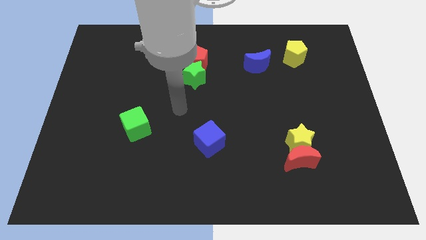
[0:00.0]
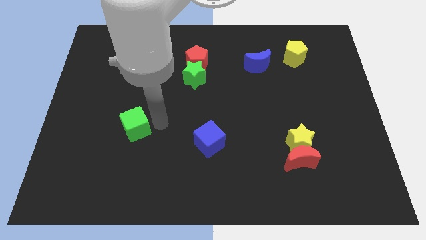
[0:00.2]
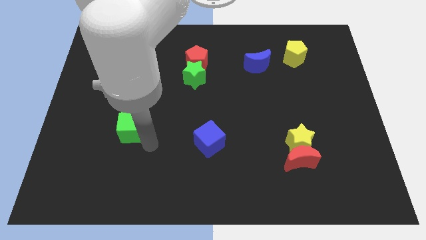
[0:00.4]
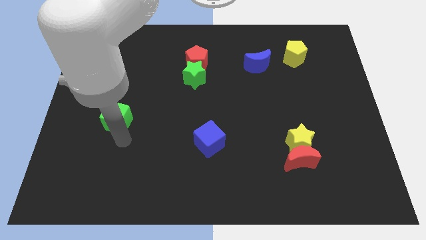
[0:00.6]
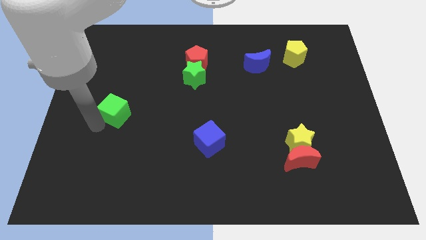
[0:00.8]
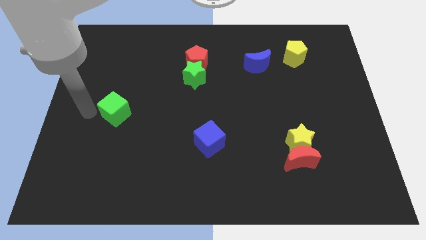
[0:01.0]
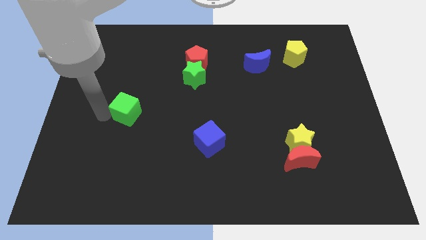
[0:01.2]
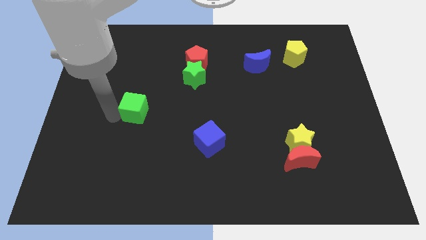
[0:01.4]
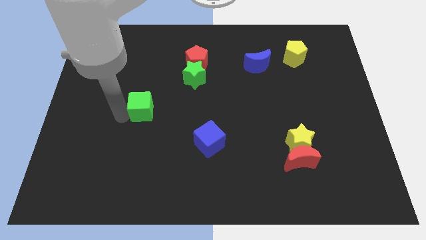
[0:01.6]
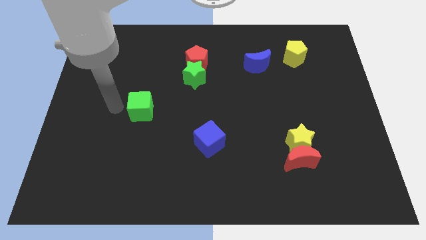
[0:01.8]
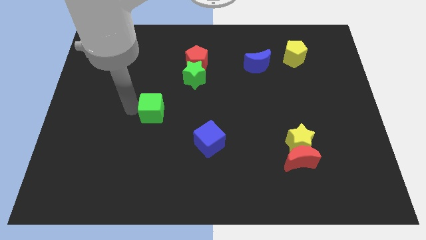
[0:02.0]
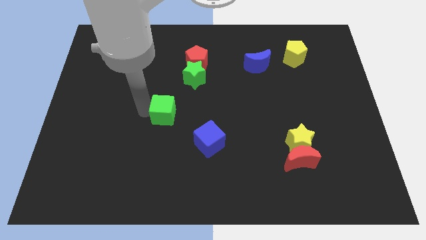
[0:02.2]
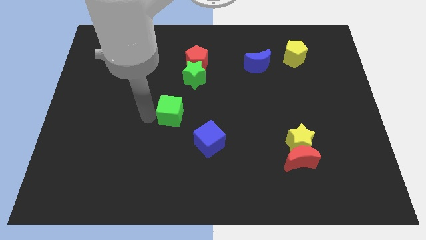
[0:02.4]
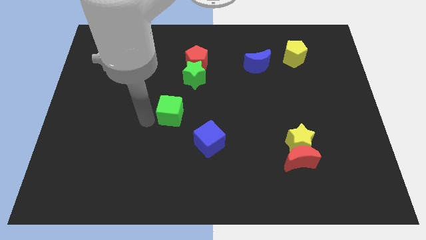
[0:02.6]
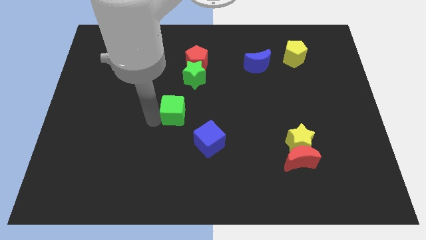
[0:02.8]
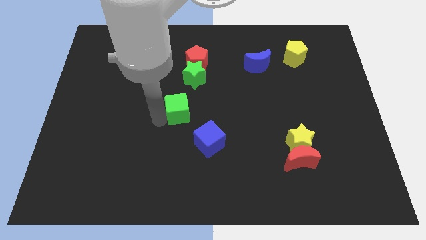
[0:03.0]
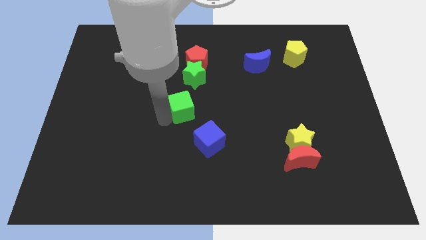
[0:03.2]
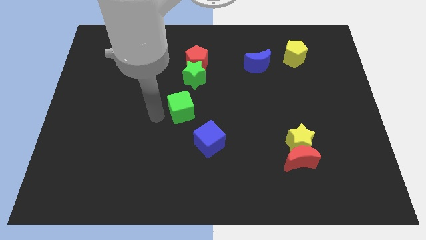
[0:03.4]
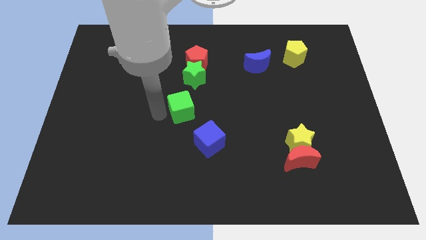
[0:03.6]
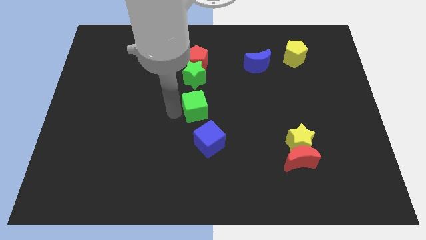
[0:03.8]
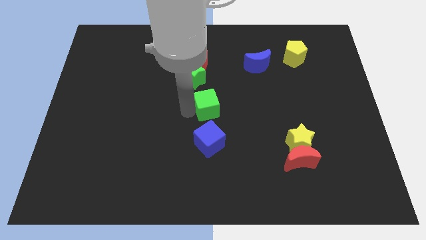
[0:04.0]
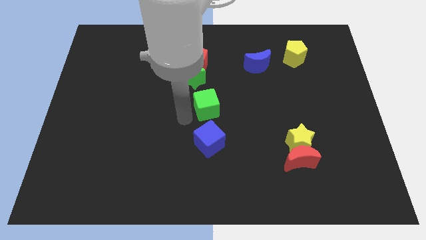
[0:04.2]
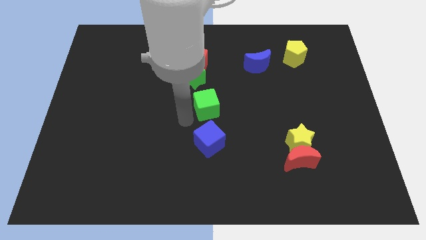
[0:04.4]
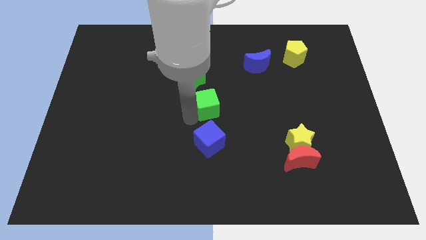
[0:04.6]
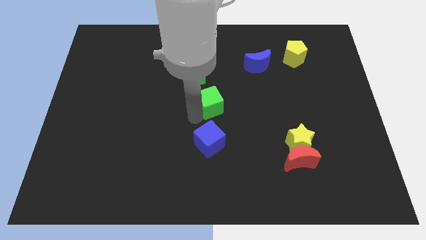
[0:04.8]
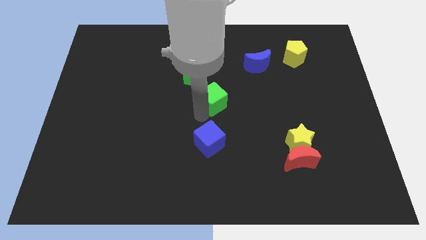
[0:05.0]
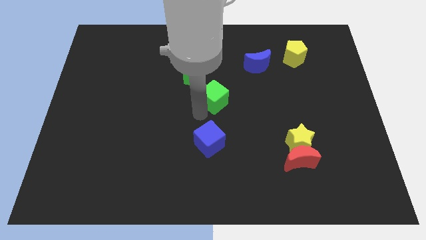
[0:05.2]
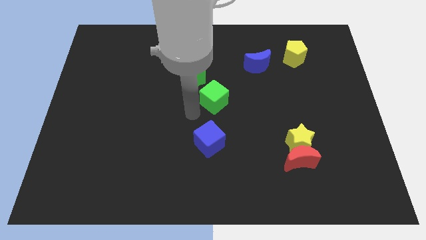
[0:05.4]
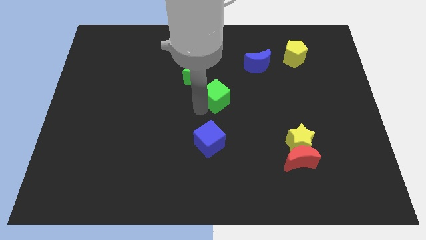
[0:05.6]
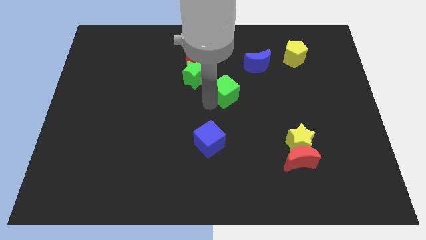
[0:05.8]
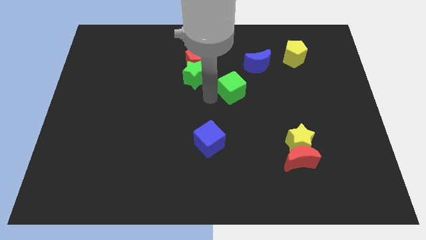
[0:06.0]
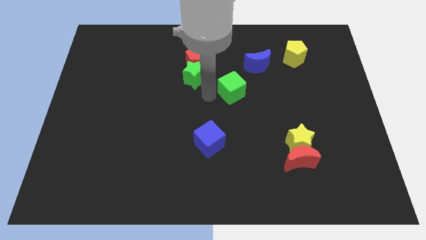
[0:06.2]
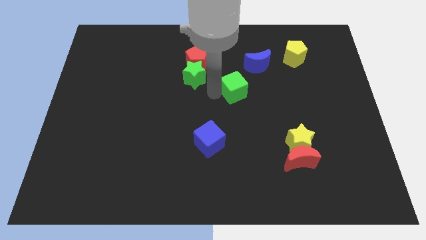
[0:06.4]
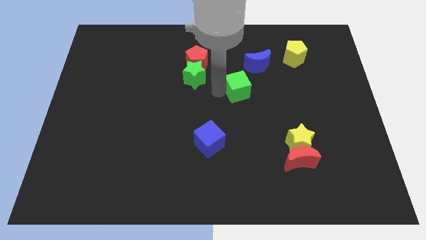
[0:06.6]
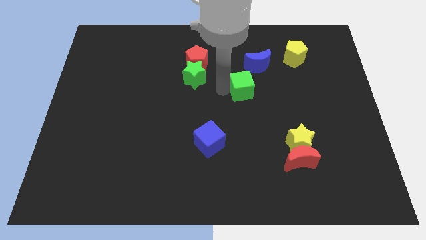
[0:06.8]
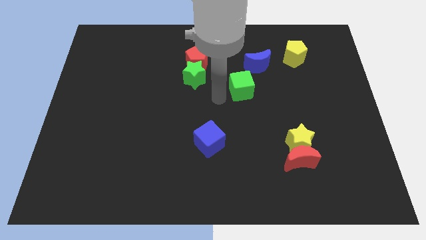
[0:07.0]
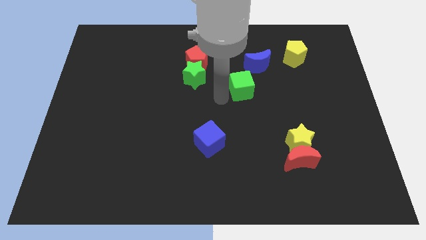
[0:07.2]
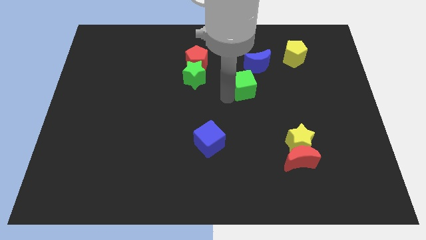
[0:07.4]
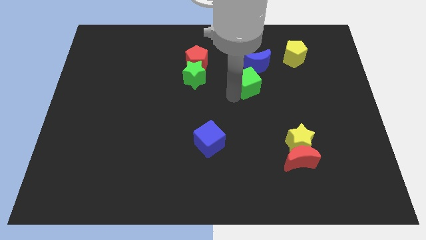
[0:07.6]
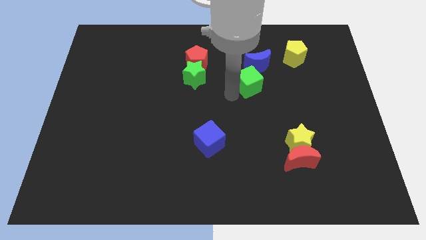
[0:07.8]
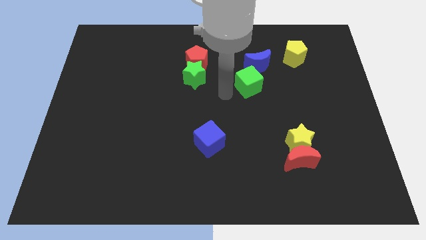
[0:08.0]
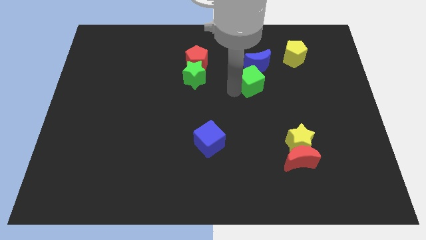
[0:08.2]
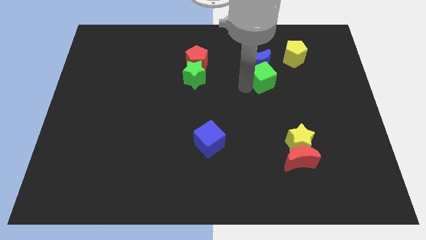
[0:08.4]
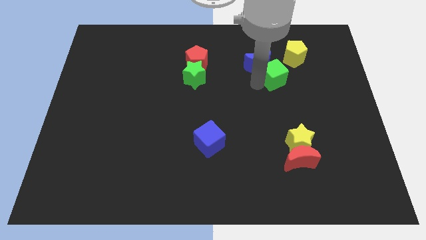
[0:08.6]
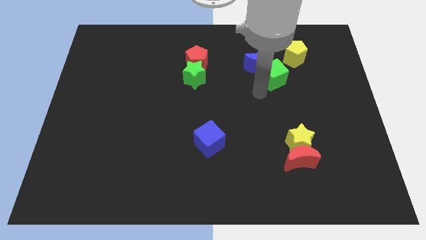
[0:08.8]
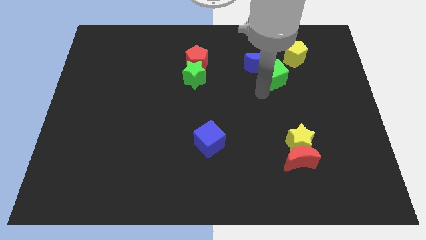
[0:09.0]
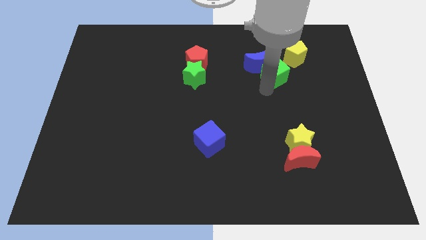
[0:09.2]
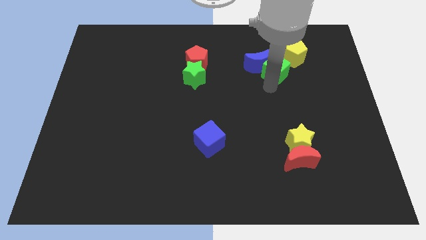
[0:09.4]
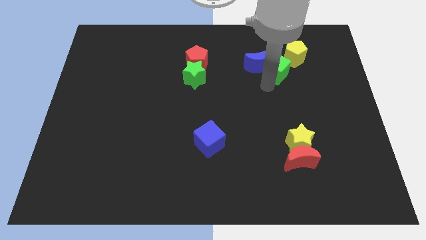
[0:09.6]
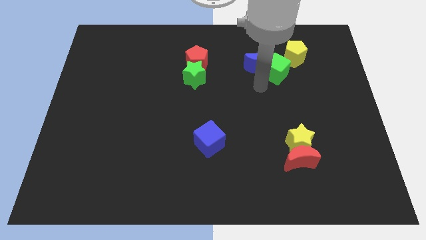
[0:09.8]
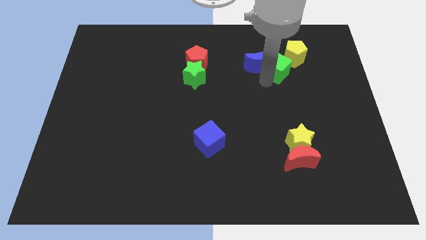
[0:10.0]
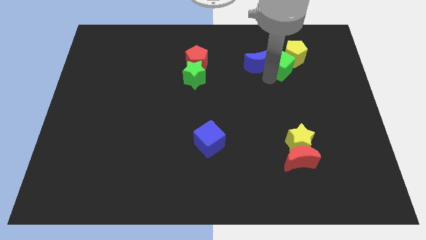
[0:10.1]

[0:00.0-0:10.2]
push the green cube next to the yellow pentagon

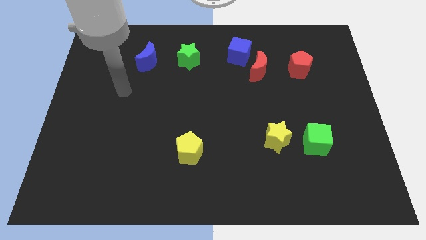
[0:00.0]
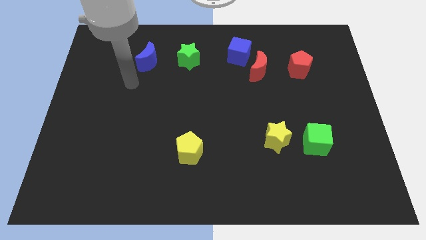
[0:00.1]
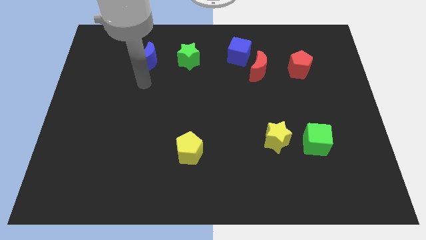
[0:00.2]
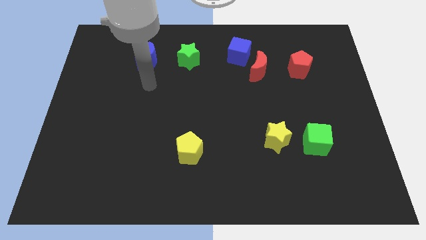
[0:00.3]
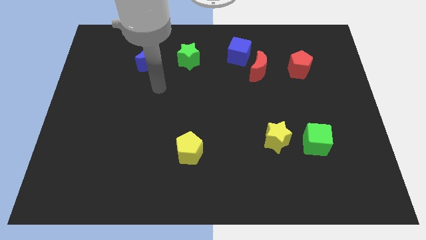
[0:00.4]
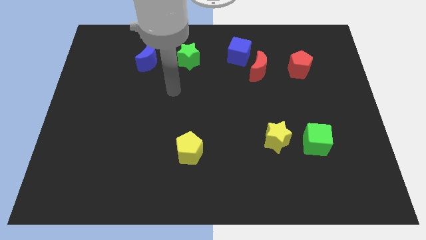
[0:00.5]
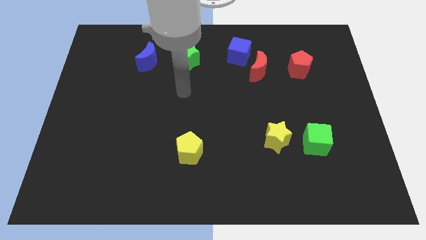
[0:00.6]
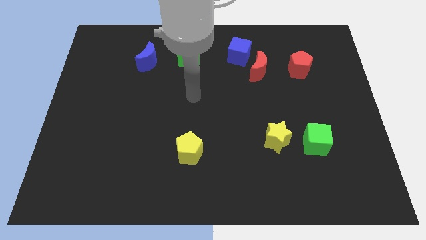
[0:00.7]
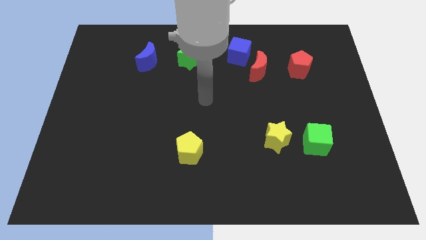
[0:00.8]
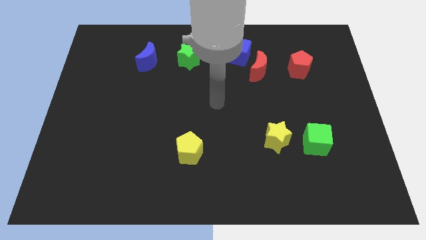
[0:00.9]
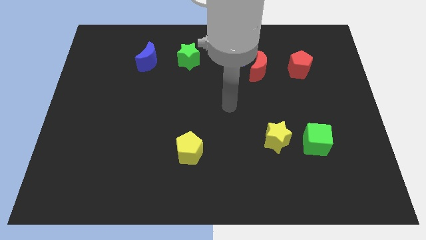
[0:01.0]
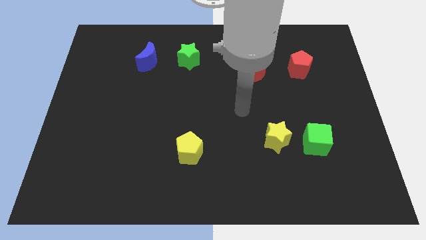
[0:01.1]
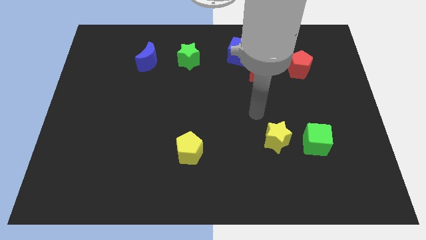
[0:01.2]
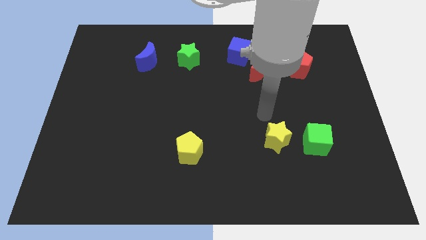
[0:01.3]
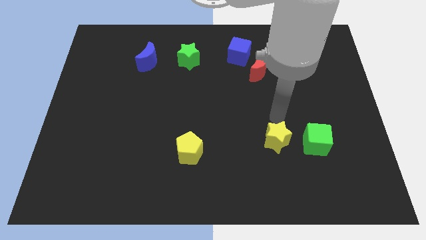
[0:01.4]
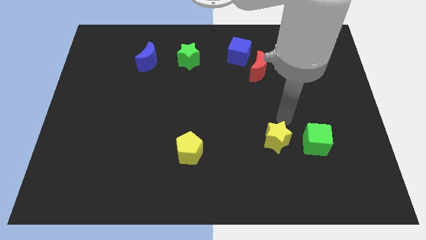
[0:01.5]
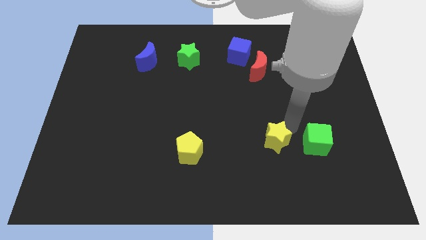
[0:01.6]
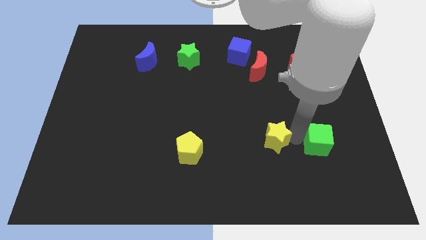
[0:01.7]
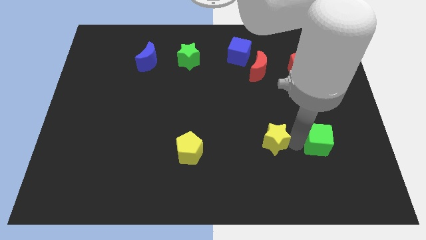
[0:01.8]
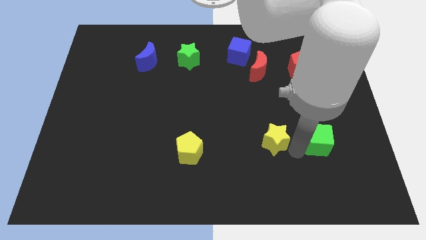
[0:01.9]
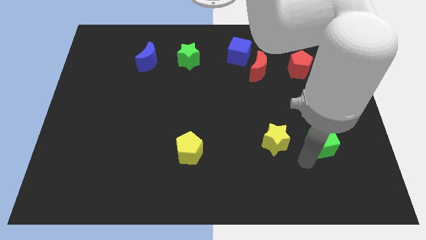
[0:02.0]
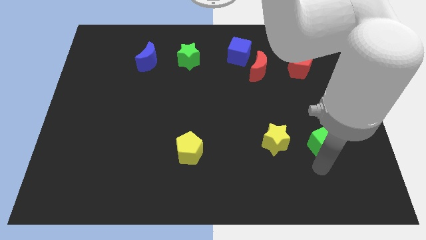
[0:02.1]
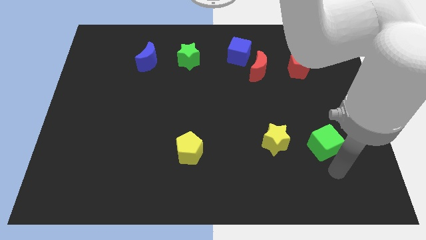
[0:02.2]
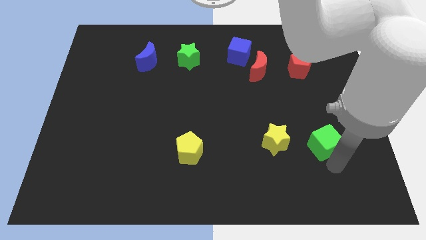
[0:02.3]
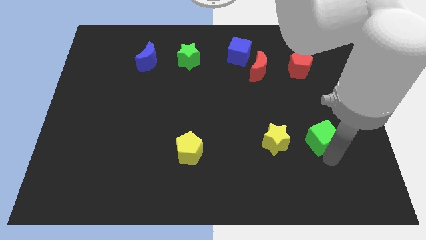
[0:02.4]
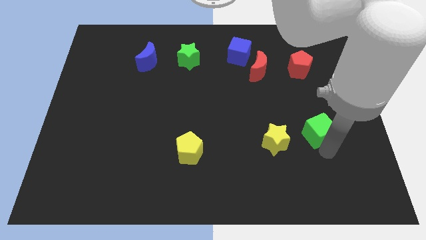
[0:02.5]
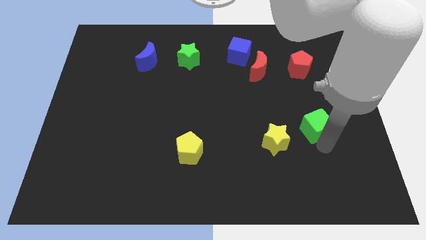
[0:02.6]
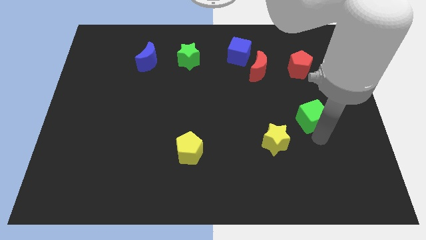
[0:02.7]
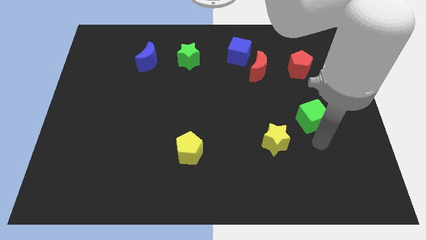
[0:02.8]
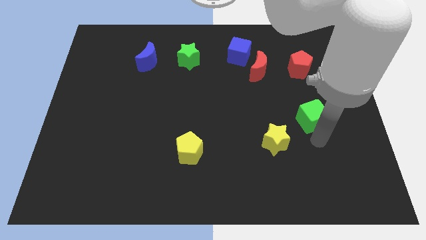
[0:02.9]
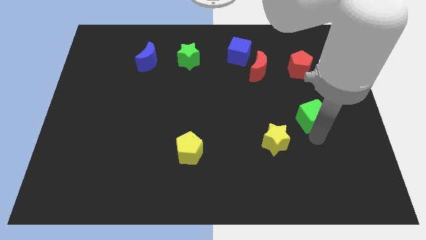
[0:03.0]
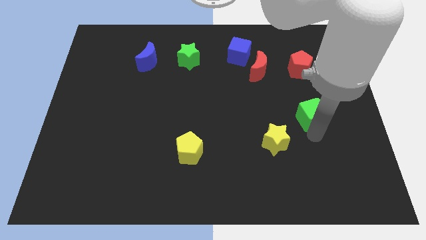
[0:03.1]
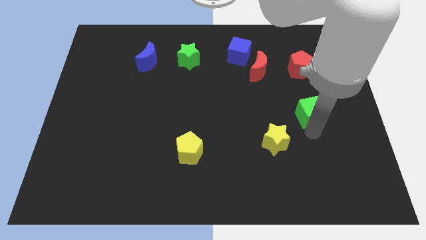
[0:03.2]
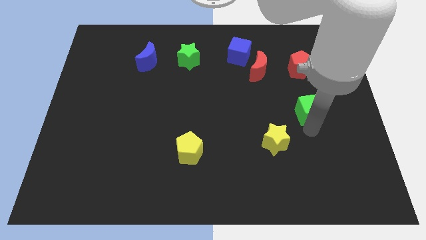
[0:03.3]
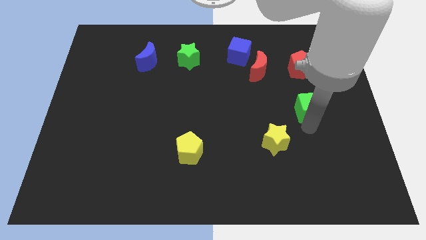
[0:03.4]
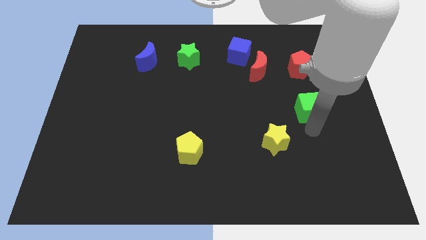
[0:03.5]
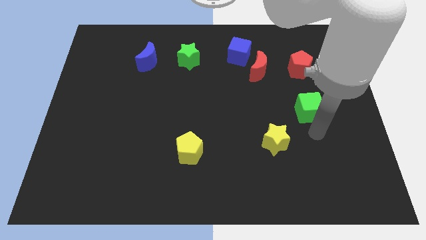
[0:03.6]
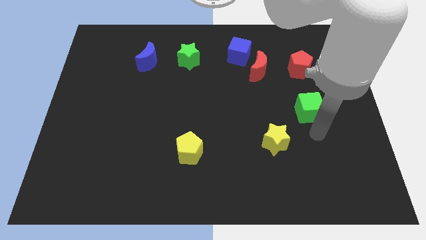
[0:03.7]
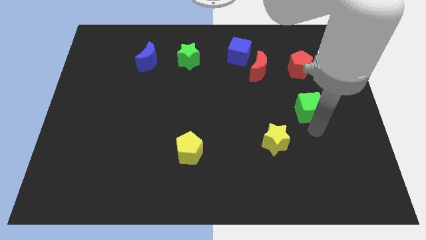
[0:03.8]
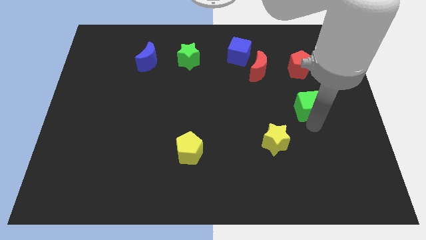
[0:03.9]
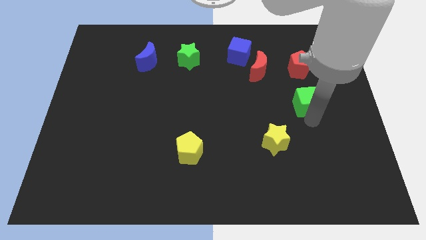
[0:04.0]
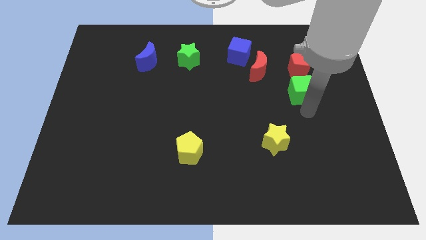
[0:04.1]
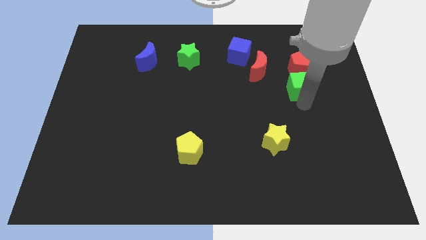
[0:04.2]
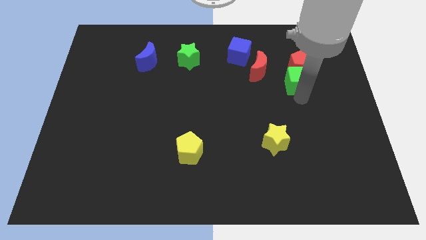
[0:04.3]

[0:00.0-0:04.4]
push the green cube towards the red pentagon
